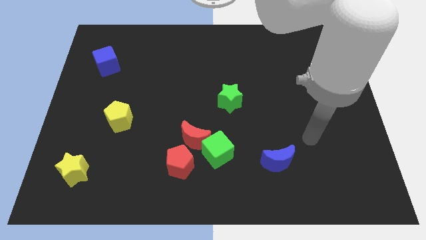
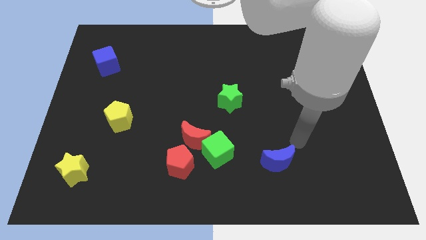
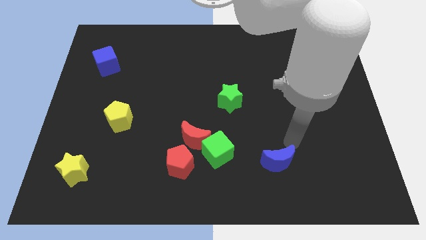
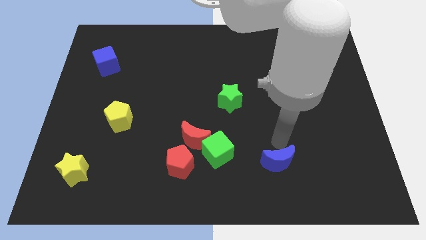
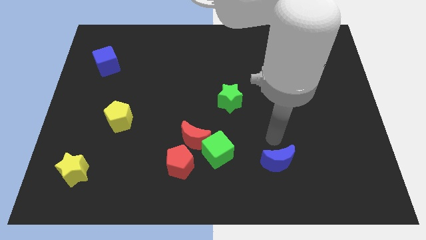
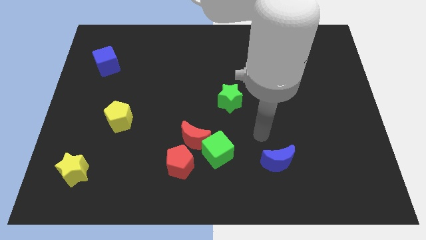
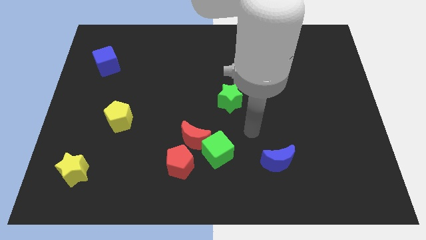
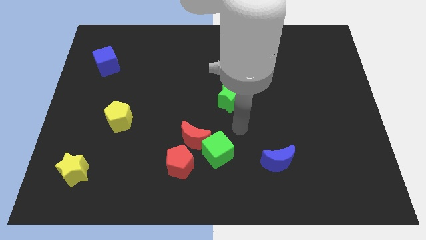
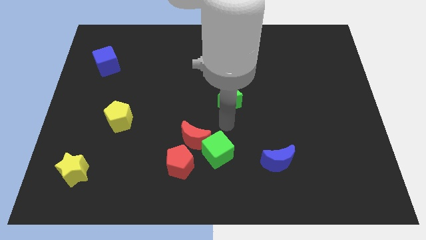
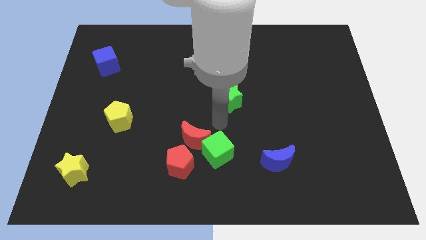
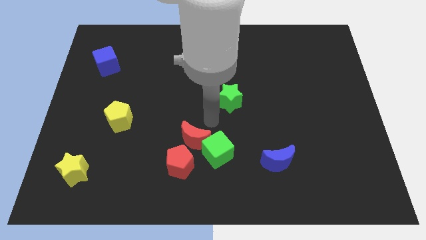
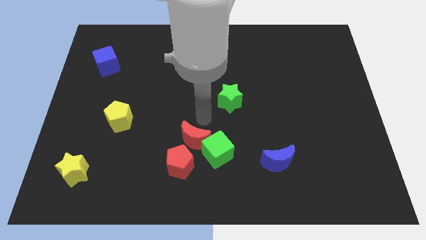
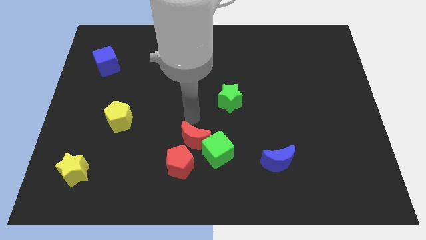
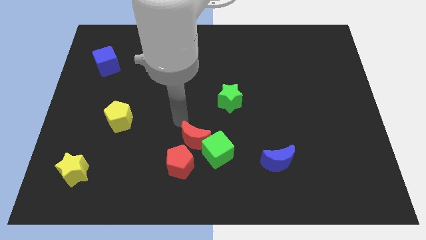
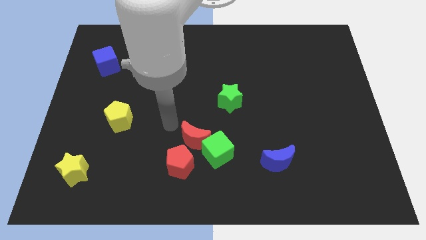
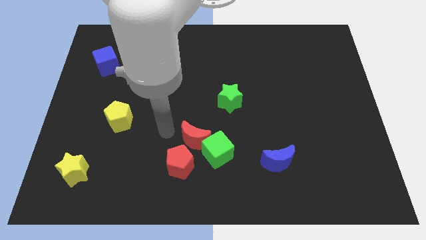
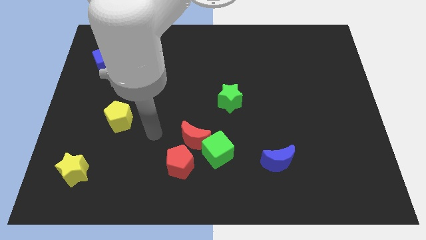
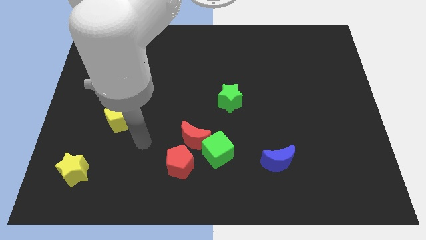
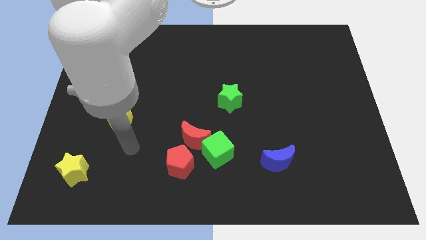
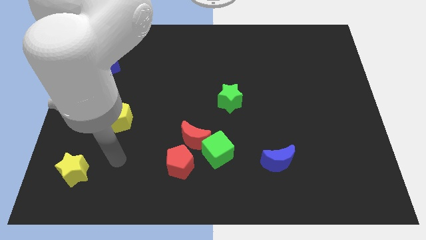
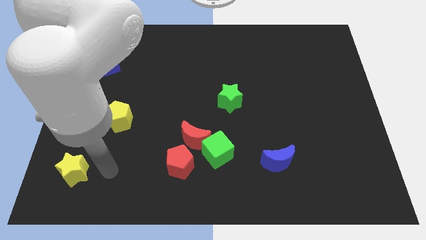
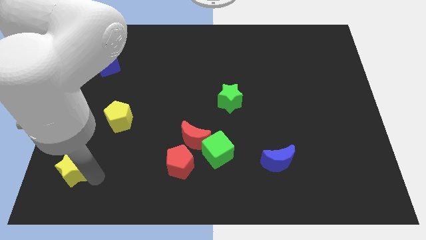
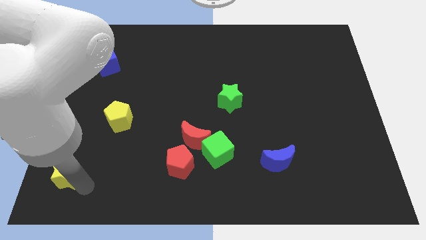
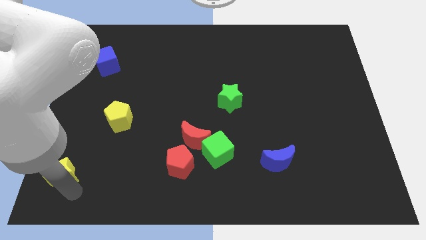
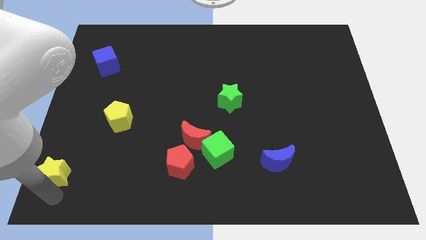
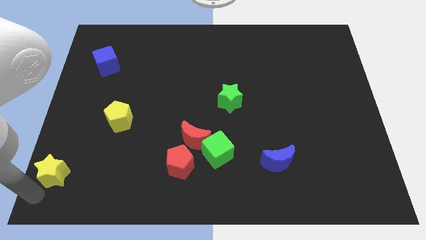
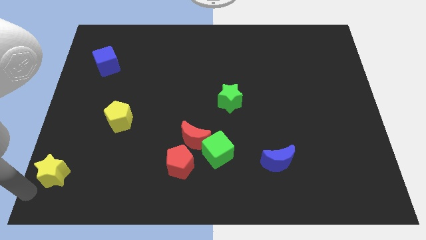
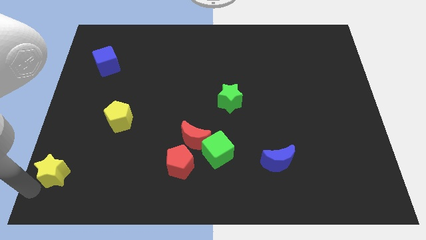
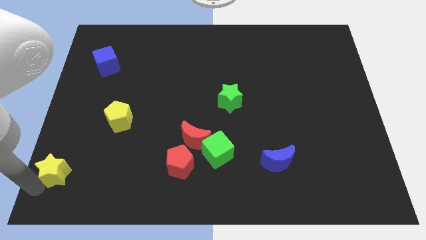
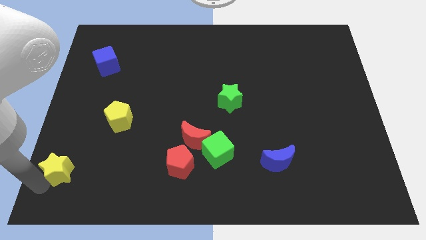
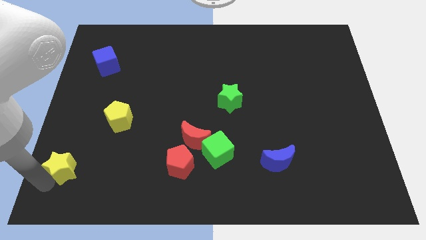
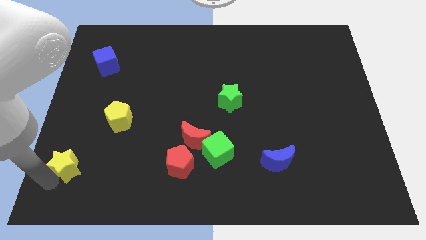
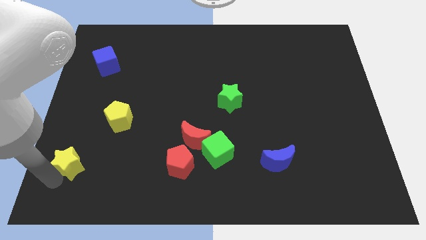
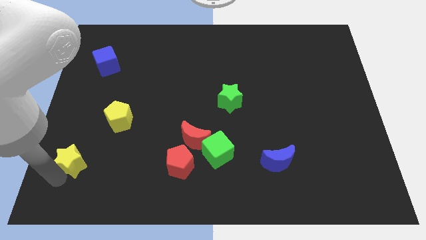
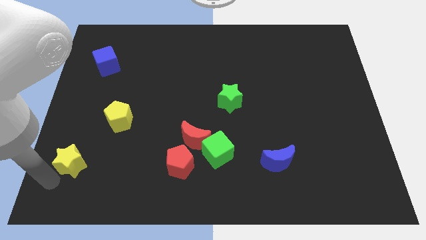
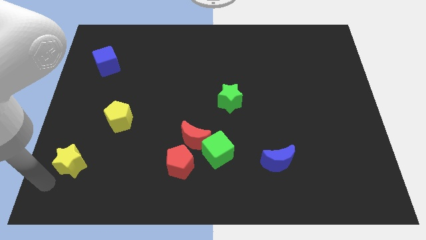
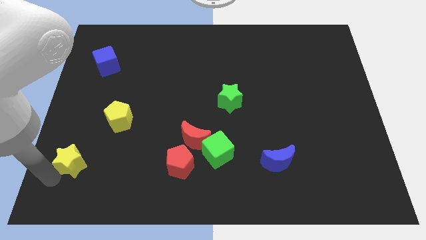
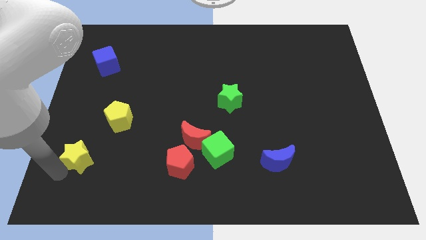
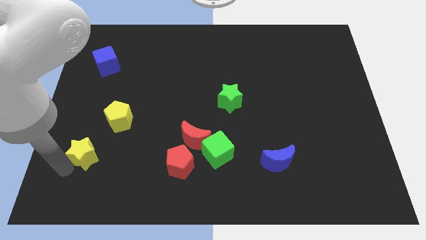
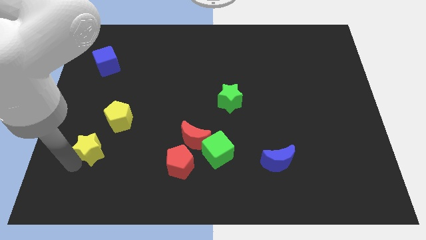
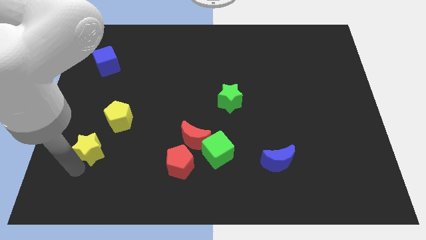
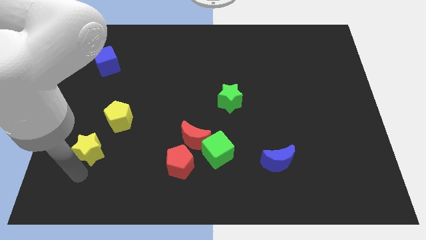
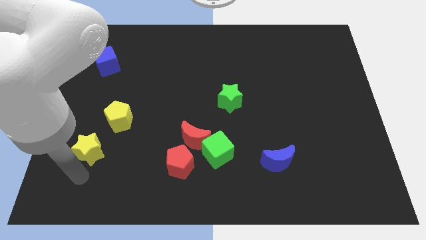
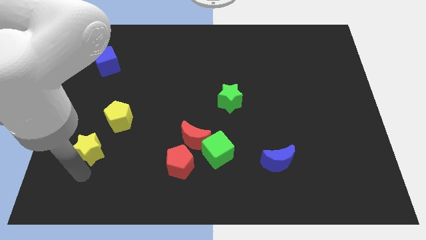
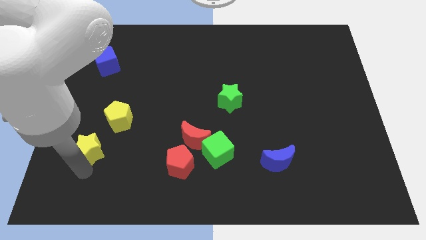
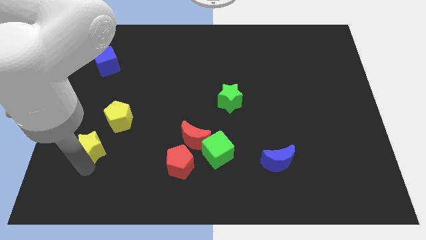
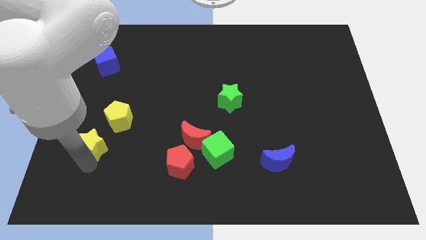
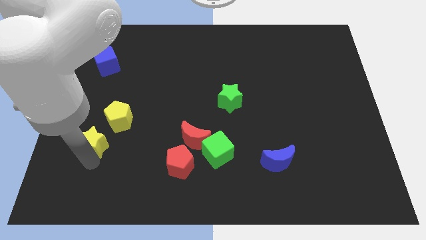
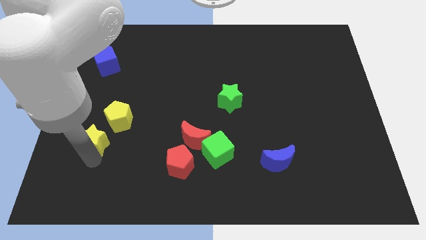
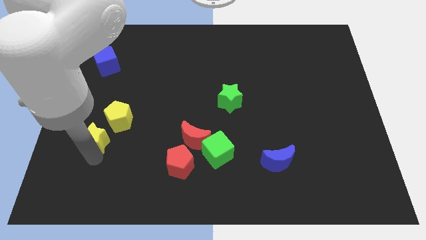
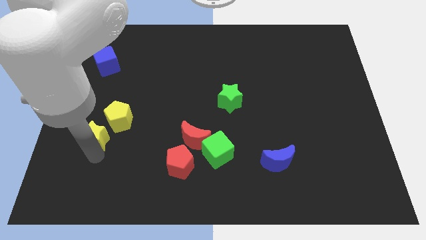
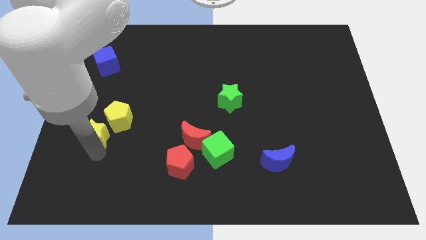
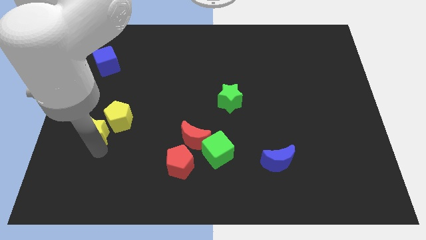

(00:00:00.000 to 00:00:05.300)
put the yellow star to the yellow pentagon

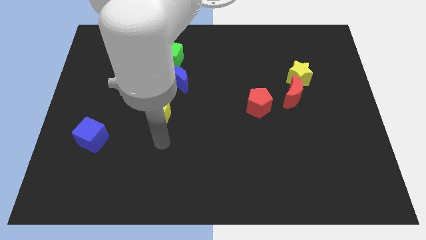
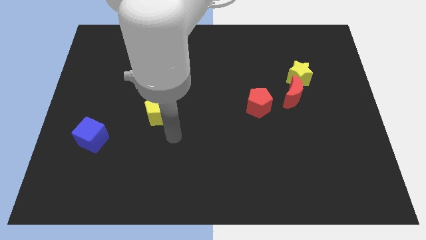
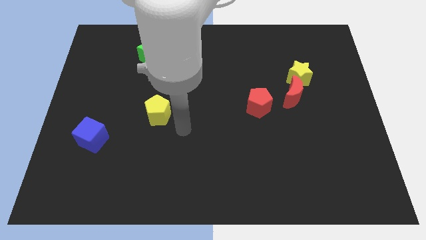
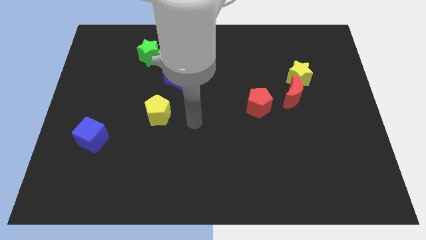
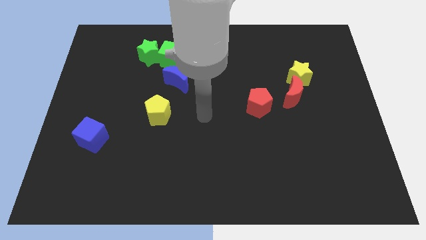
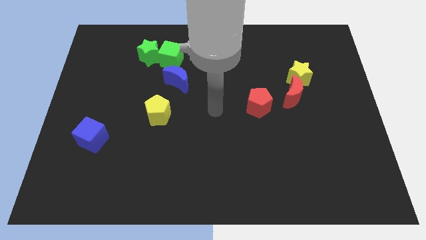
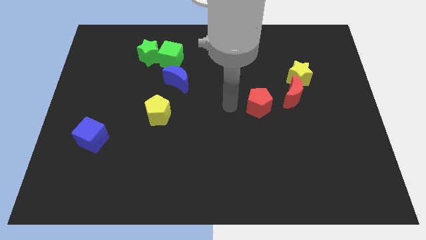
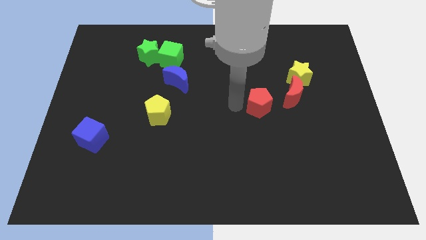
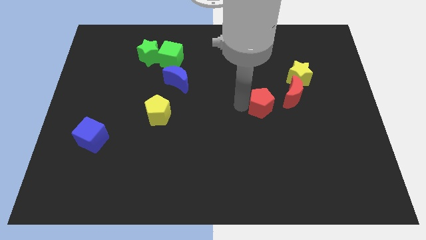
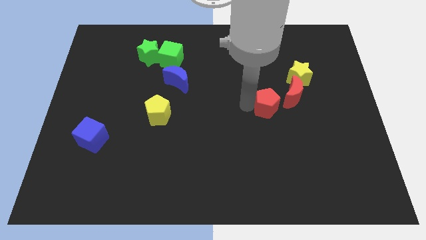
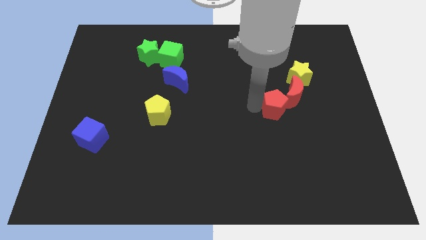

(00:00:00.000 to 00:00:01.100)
put the red pentagon to the red moon
